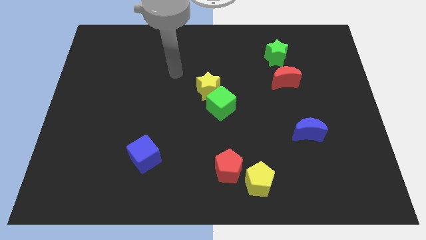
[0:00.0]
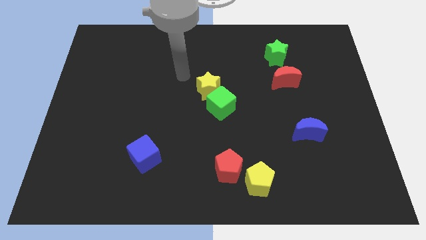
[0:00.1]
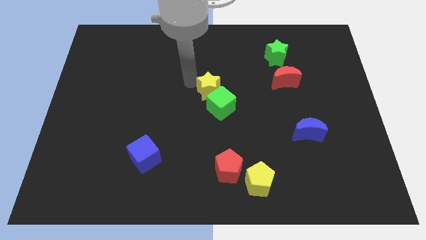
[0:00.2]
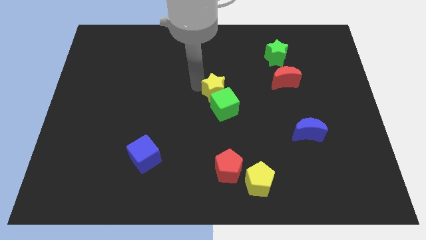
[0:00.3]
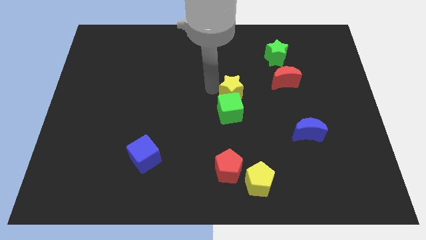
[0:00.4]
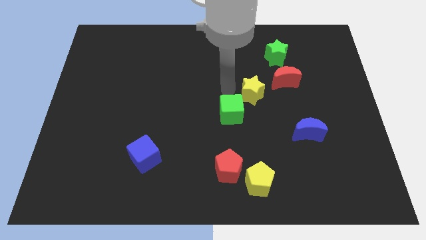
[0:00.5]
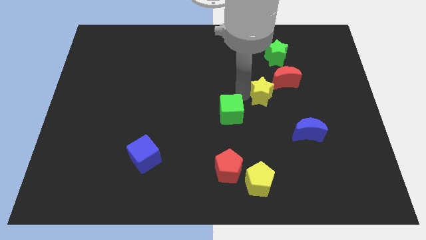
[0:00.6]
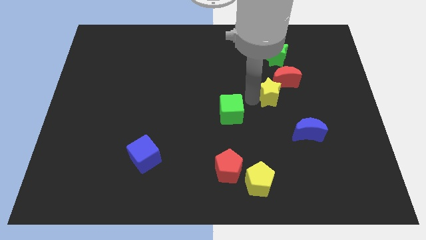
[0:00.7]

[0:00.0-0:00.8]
pull the green cube apart from the yellow star

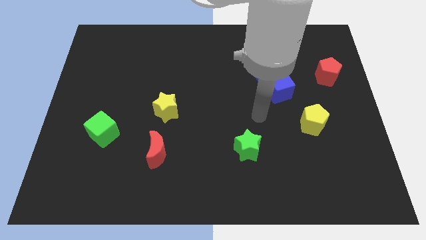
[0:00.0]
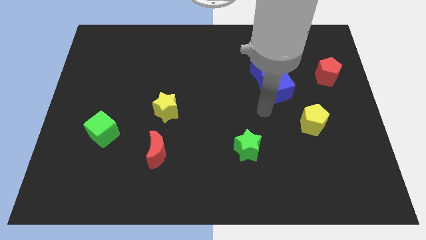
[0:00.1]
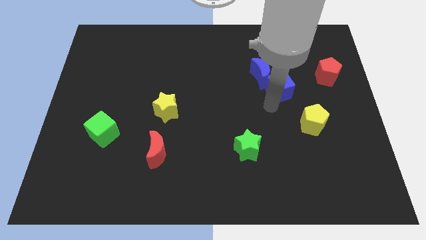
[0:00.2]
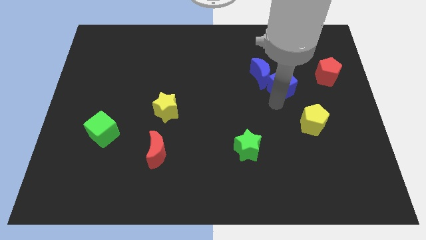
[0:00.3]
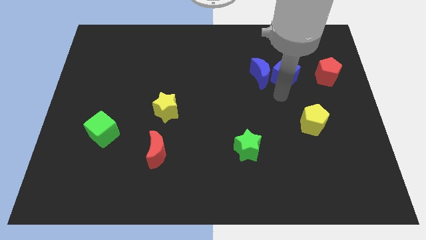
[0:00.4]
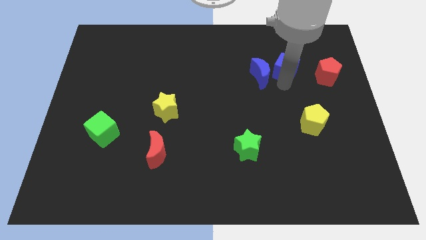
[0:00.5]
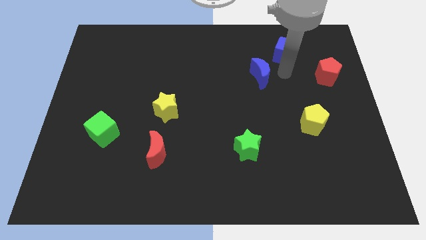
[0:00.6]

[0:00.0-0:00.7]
move the blue moon away from the blue cube

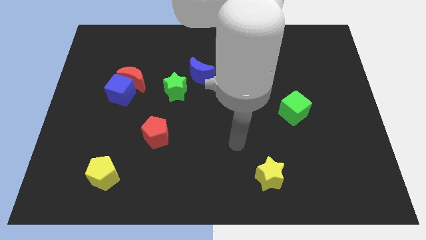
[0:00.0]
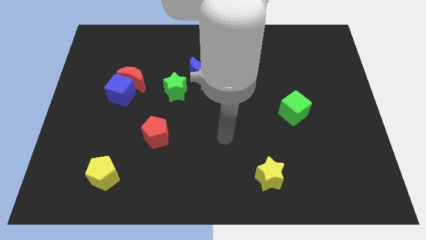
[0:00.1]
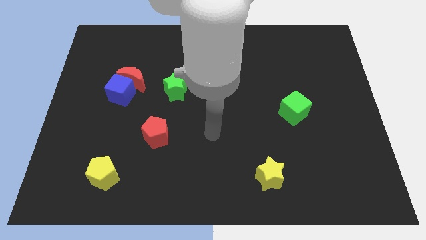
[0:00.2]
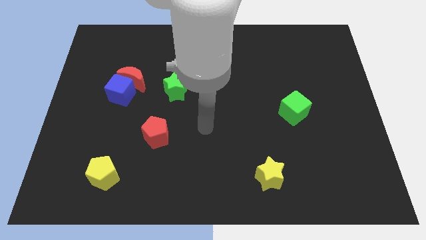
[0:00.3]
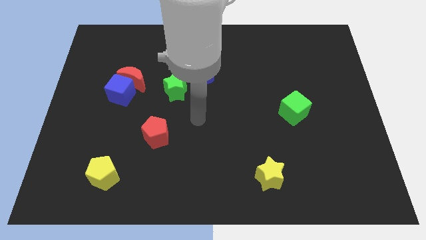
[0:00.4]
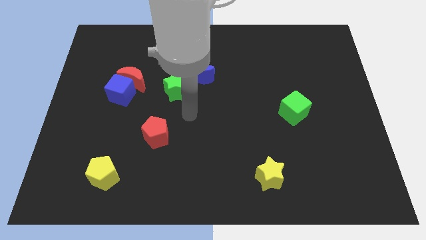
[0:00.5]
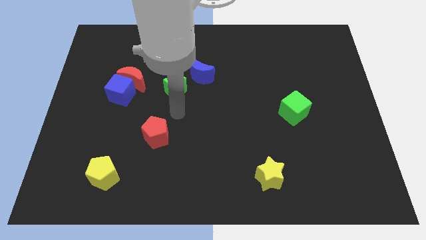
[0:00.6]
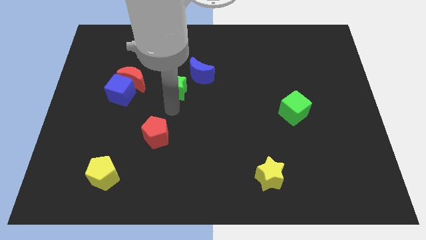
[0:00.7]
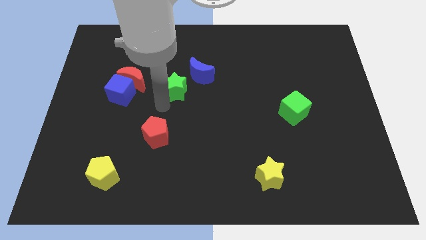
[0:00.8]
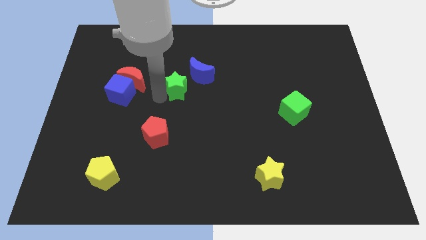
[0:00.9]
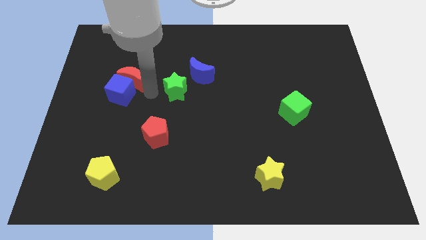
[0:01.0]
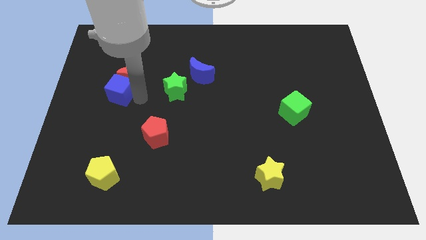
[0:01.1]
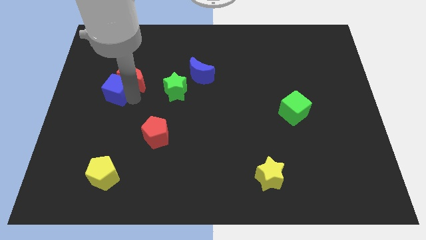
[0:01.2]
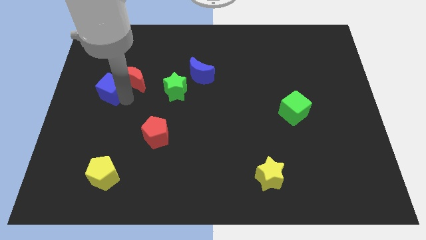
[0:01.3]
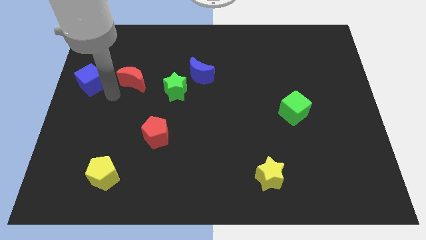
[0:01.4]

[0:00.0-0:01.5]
pull the red moon apart from the blue cube

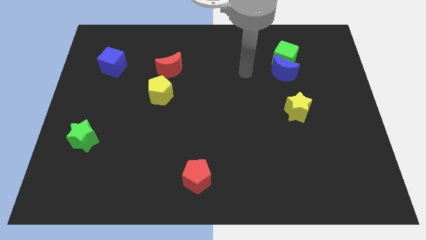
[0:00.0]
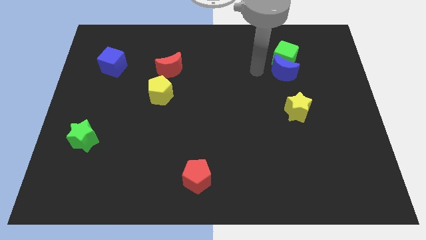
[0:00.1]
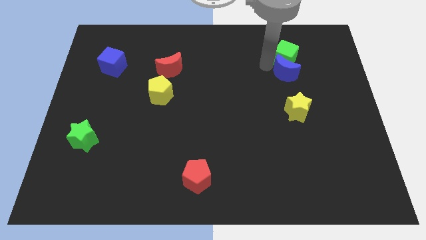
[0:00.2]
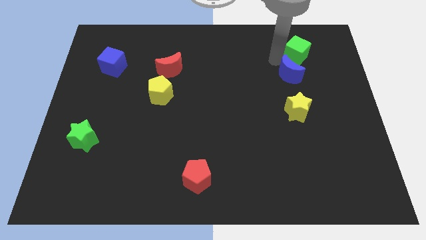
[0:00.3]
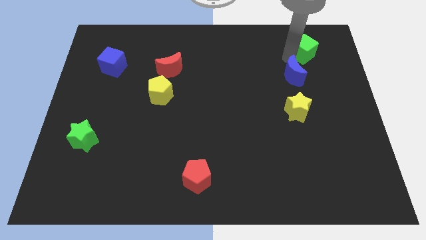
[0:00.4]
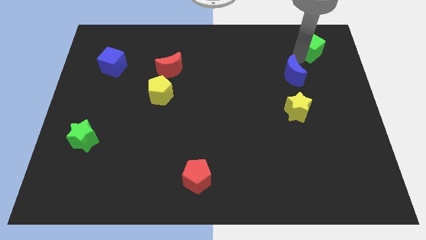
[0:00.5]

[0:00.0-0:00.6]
separate the blue moon from the green cube

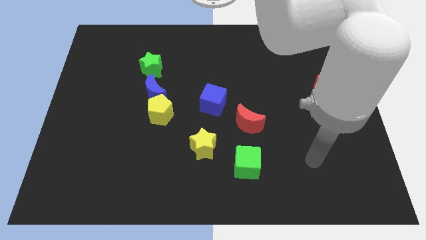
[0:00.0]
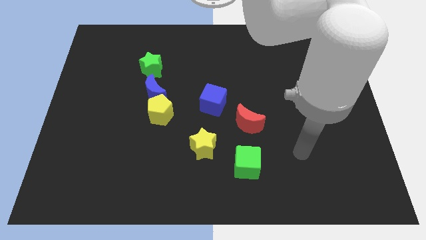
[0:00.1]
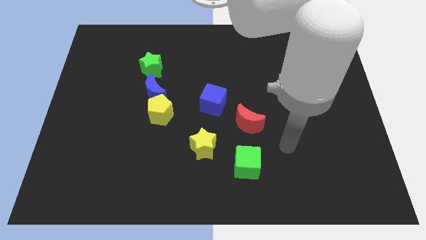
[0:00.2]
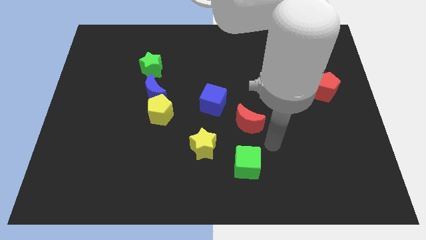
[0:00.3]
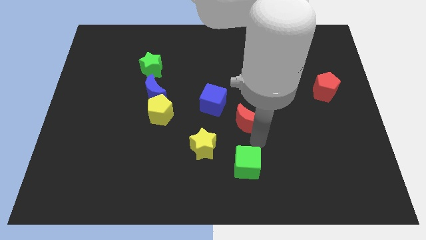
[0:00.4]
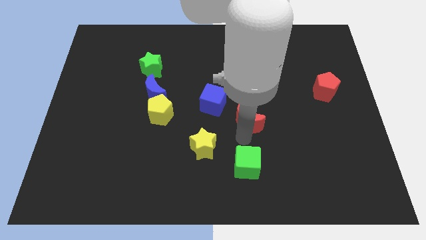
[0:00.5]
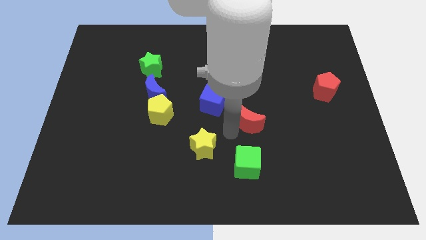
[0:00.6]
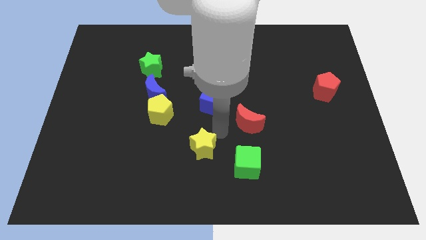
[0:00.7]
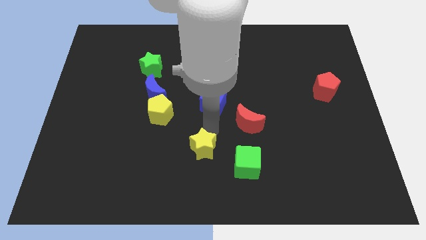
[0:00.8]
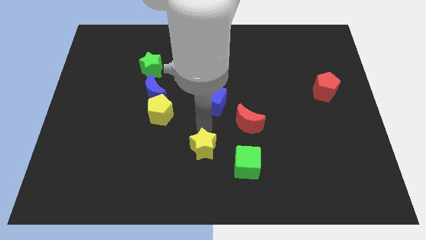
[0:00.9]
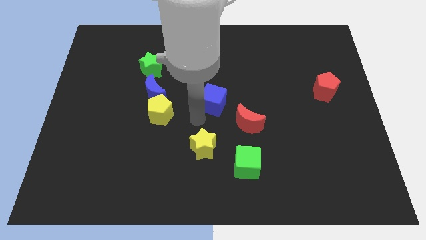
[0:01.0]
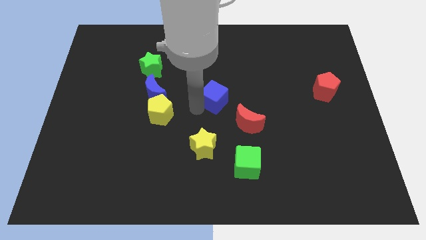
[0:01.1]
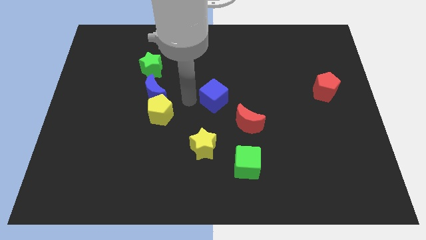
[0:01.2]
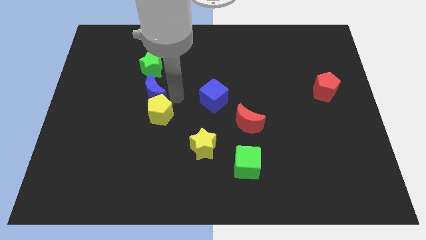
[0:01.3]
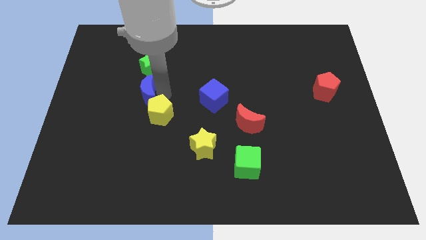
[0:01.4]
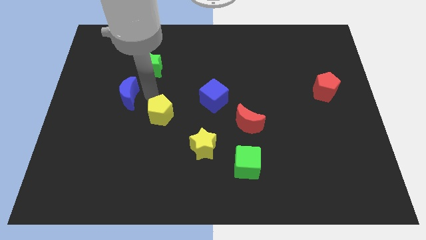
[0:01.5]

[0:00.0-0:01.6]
separate the yellow pentagon from the blue moon

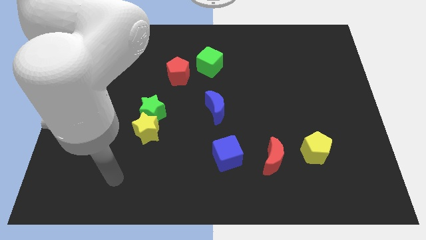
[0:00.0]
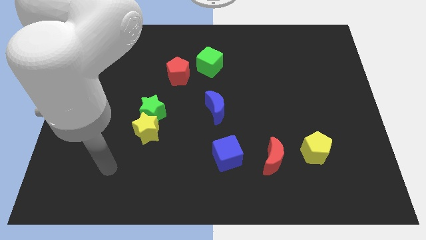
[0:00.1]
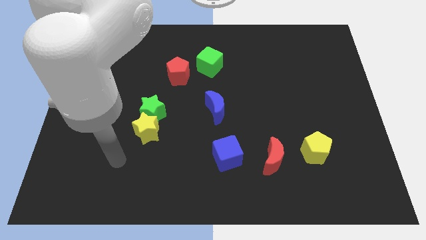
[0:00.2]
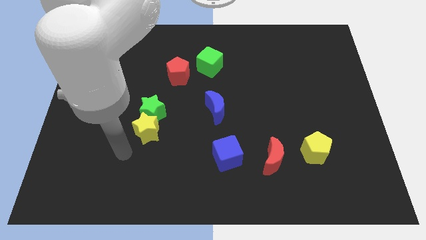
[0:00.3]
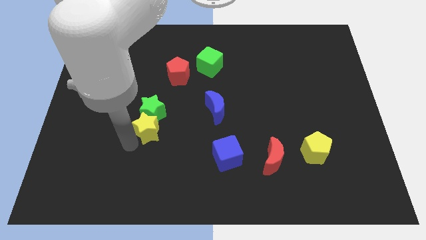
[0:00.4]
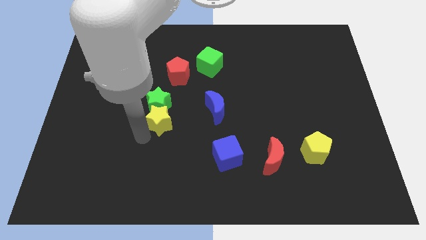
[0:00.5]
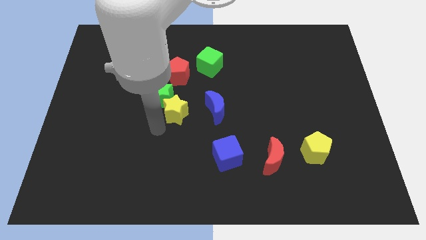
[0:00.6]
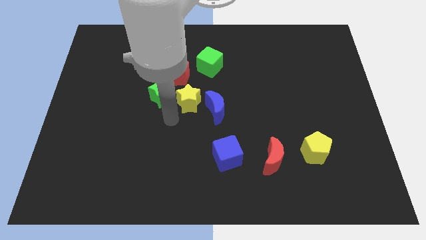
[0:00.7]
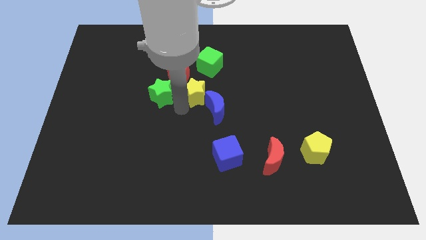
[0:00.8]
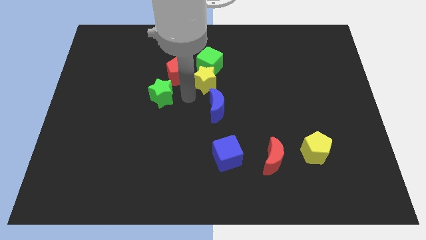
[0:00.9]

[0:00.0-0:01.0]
move the green star away from the yellow star

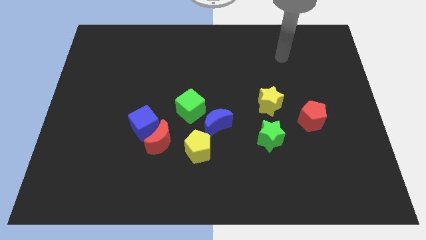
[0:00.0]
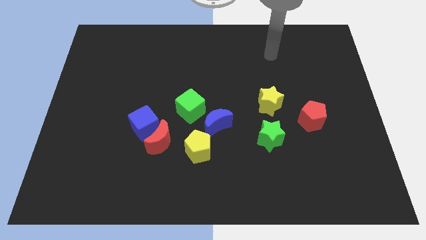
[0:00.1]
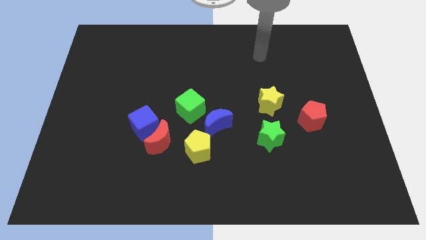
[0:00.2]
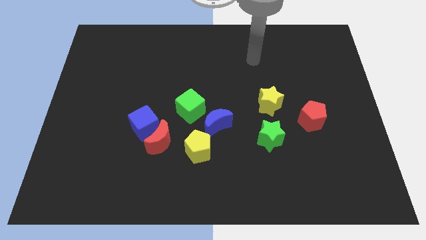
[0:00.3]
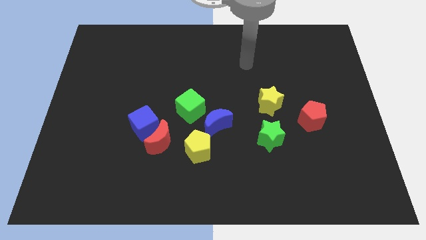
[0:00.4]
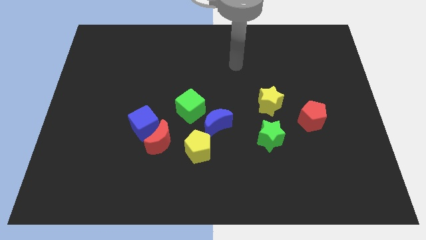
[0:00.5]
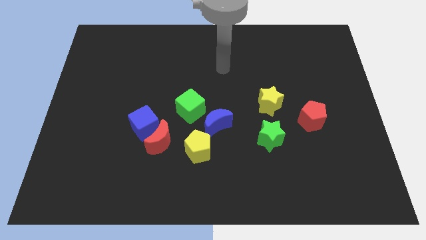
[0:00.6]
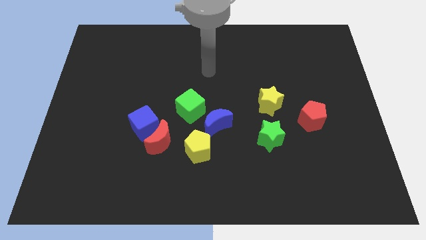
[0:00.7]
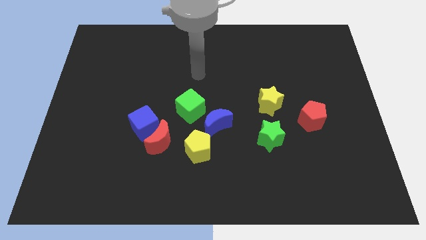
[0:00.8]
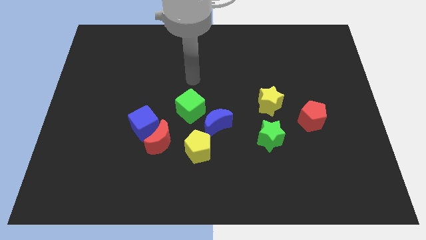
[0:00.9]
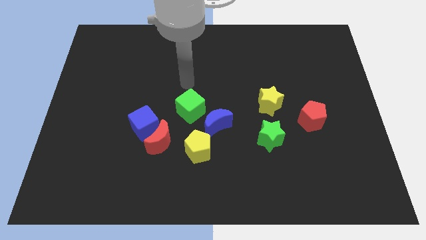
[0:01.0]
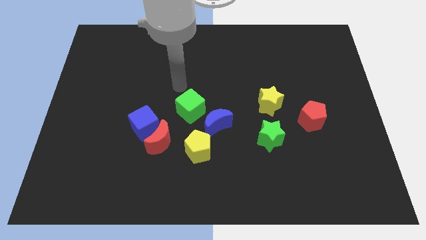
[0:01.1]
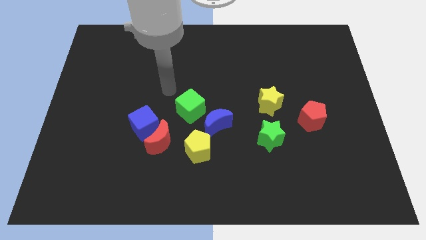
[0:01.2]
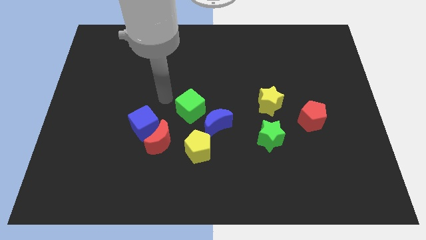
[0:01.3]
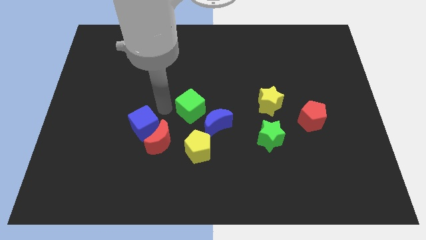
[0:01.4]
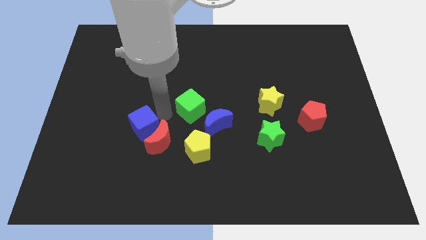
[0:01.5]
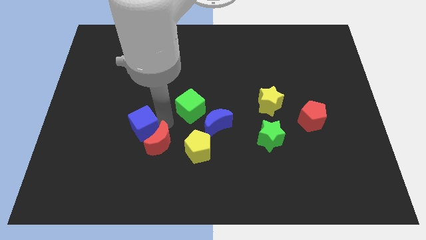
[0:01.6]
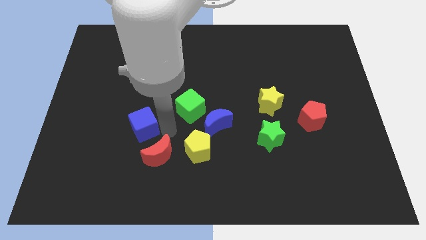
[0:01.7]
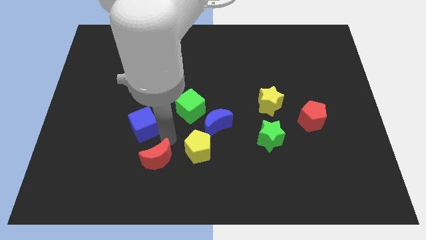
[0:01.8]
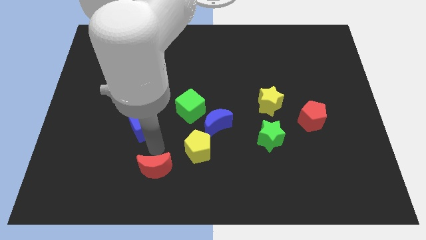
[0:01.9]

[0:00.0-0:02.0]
move the blue cube away from the red moon

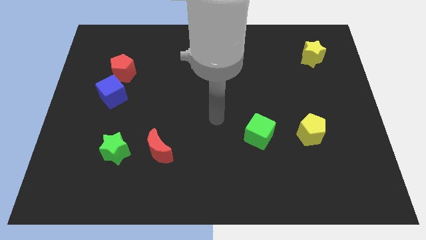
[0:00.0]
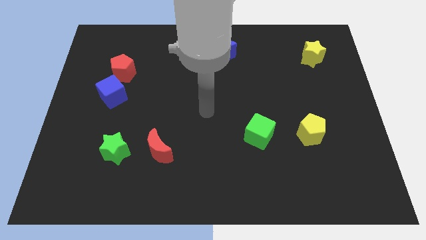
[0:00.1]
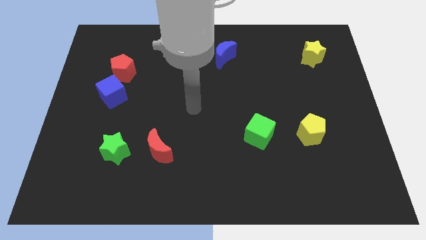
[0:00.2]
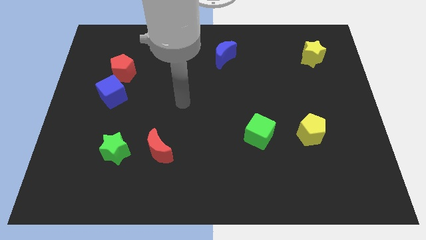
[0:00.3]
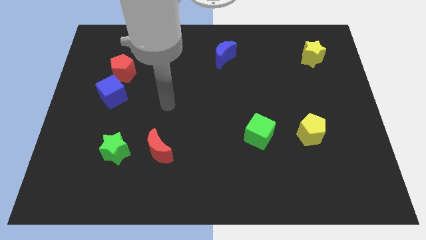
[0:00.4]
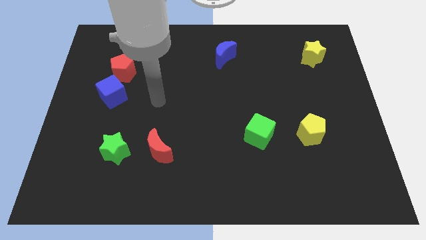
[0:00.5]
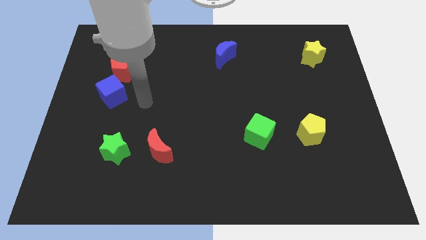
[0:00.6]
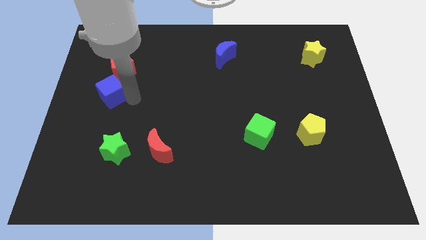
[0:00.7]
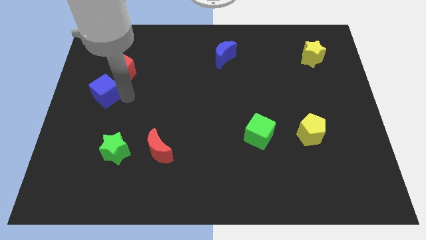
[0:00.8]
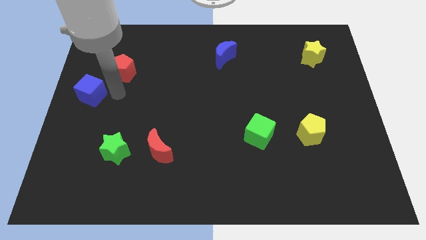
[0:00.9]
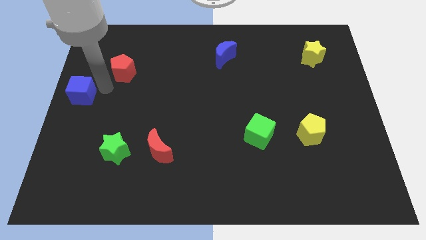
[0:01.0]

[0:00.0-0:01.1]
separate the red pentagon from the blue cube

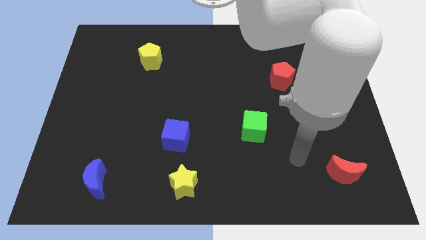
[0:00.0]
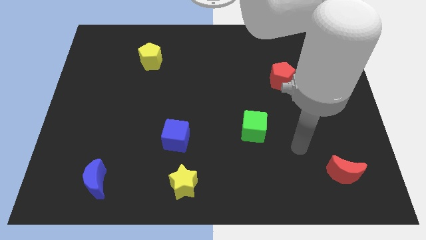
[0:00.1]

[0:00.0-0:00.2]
move the red pentagon away from the green star
